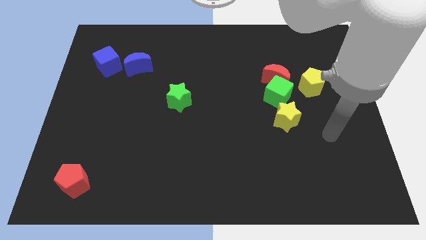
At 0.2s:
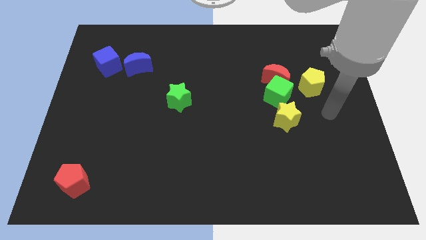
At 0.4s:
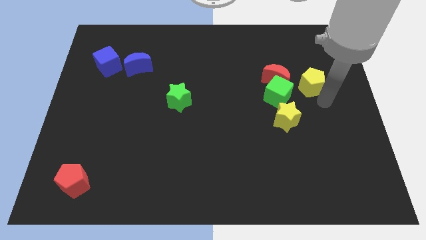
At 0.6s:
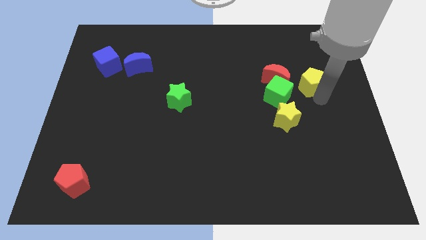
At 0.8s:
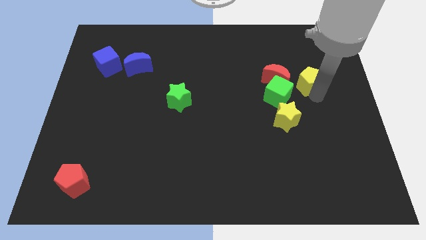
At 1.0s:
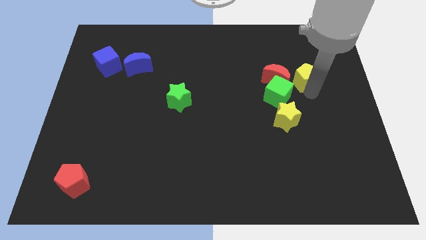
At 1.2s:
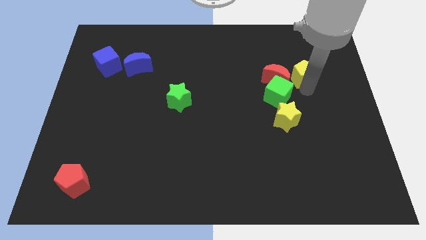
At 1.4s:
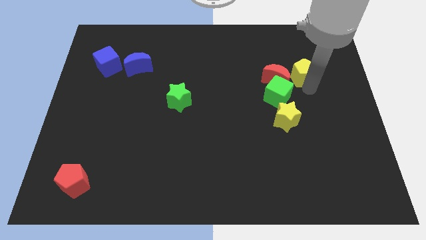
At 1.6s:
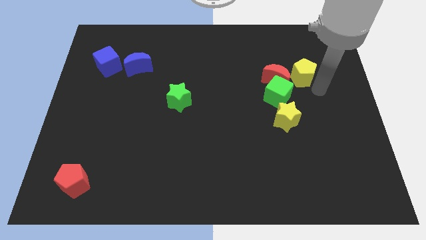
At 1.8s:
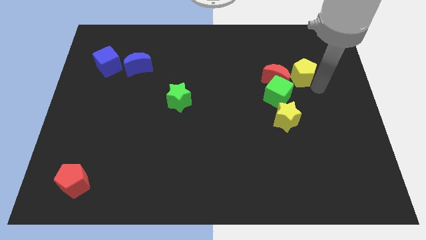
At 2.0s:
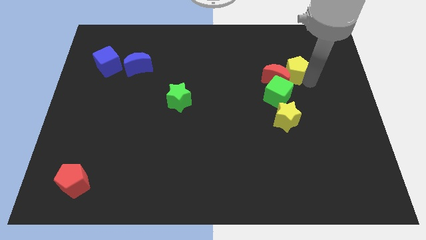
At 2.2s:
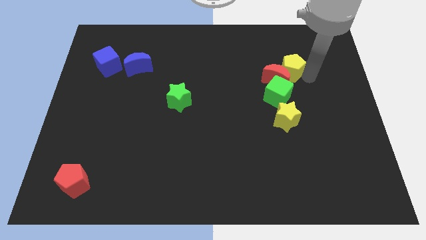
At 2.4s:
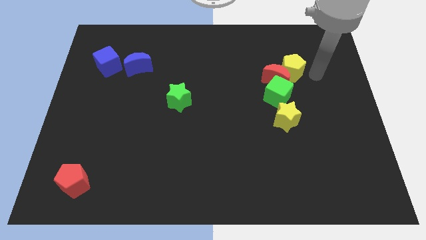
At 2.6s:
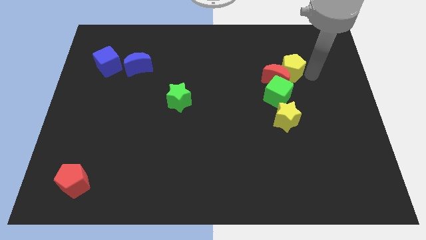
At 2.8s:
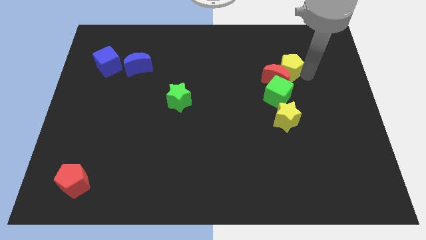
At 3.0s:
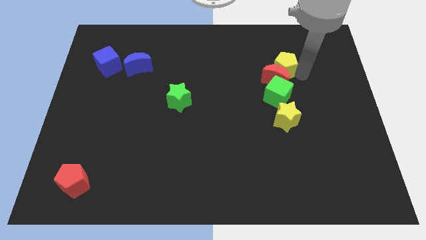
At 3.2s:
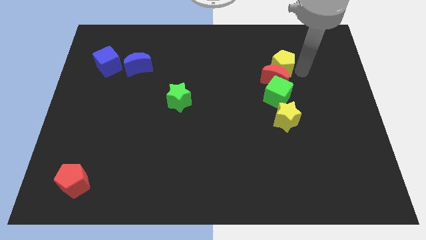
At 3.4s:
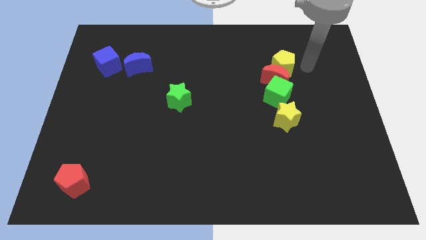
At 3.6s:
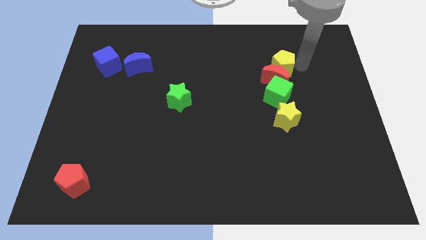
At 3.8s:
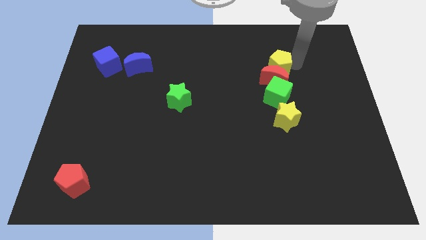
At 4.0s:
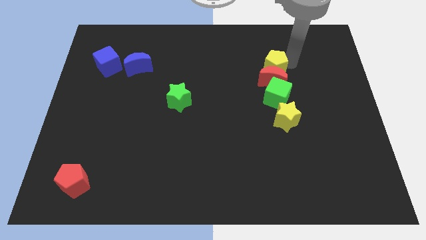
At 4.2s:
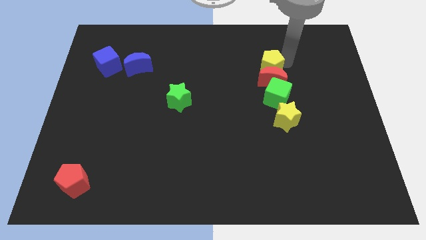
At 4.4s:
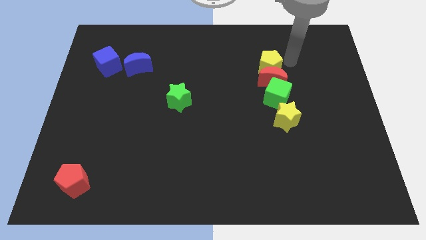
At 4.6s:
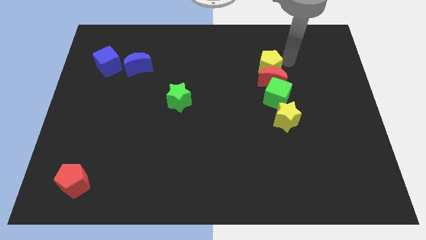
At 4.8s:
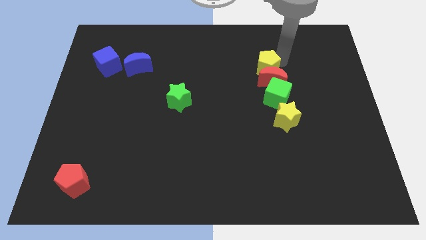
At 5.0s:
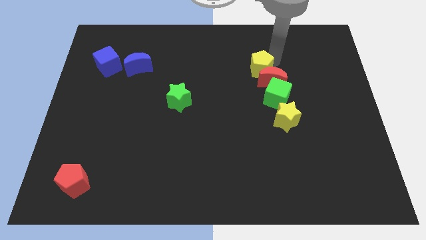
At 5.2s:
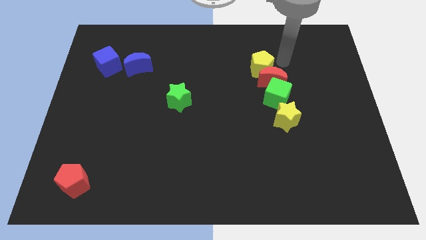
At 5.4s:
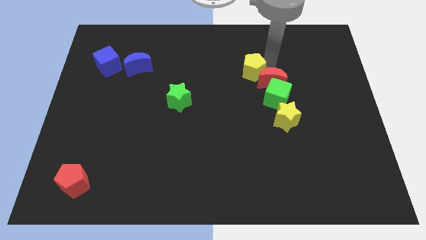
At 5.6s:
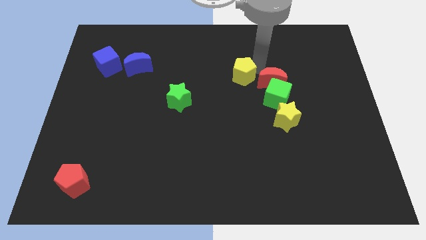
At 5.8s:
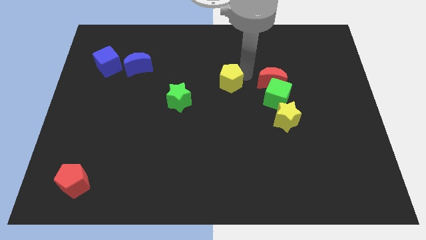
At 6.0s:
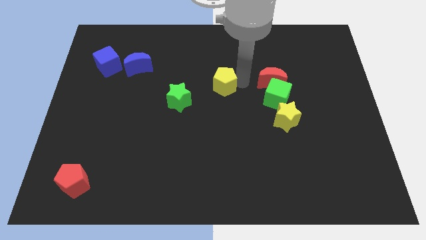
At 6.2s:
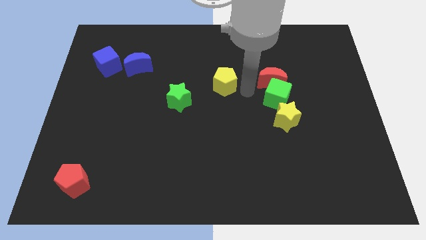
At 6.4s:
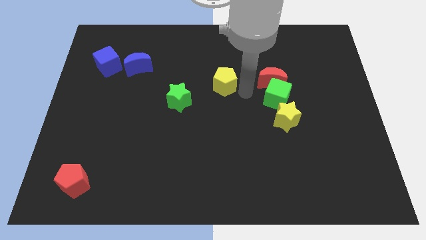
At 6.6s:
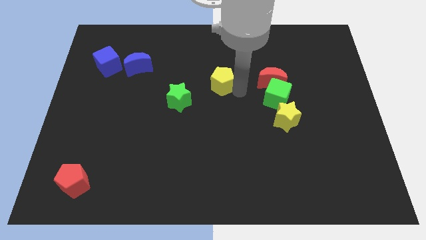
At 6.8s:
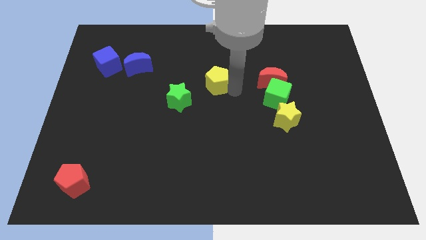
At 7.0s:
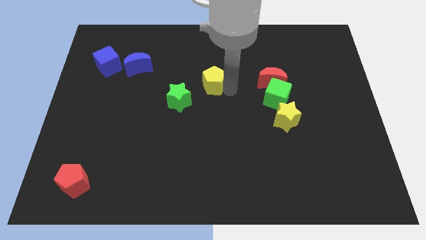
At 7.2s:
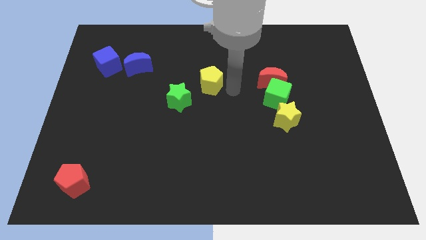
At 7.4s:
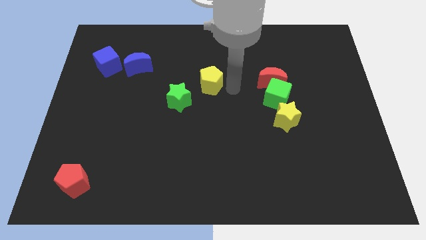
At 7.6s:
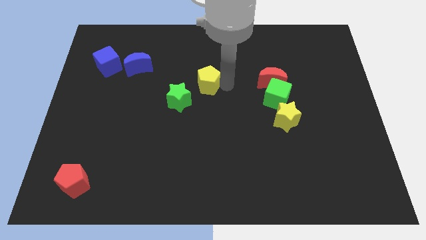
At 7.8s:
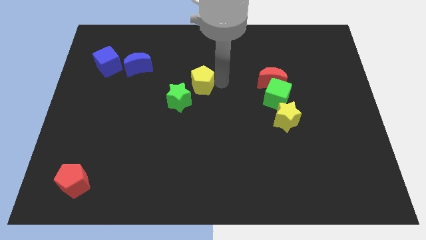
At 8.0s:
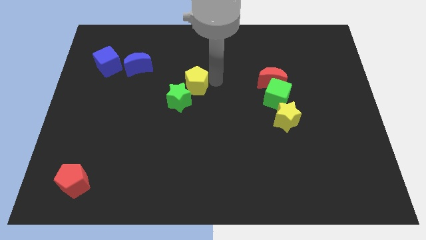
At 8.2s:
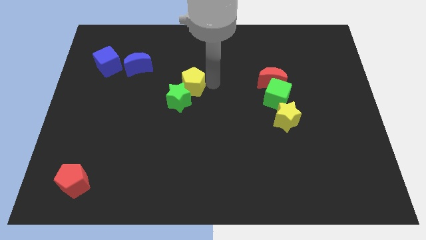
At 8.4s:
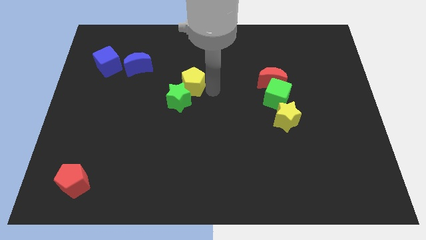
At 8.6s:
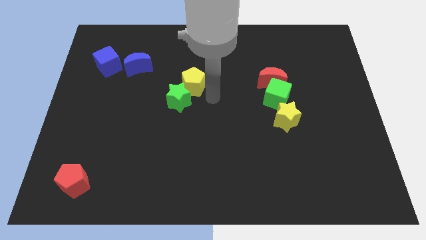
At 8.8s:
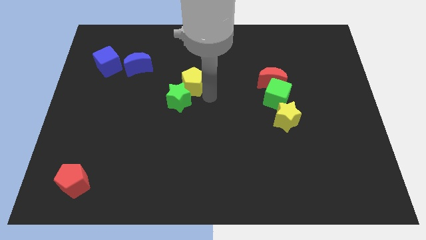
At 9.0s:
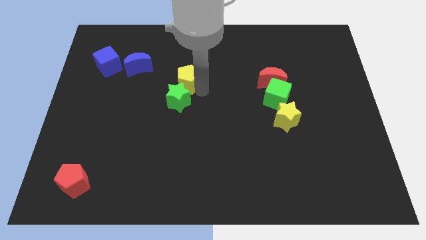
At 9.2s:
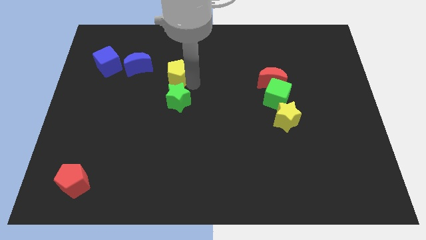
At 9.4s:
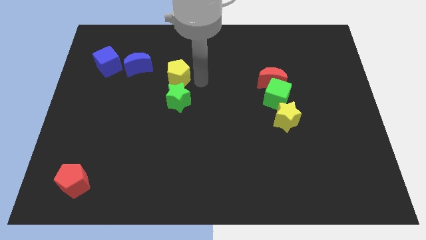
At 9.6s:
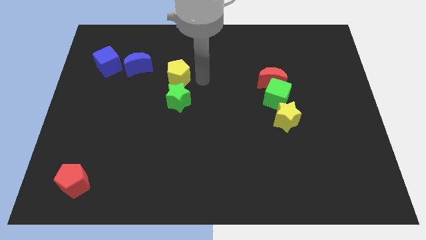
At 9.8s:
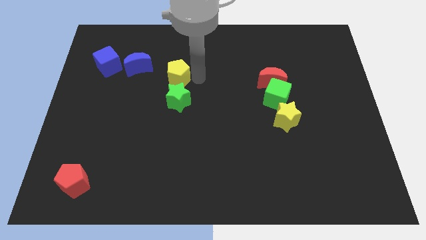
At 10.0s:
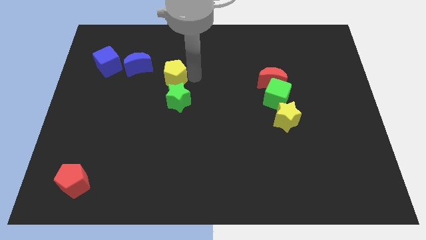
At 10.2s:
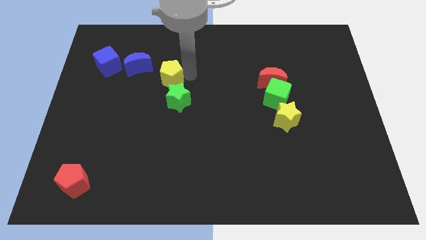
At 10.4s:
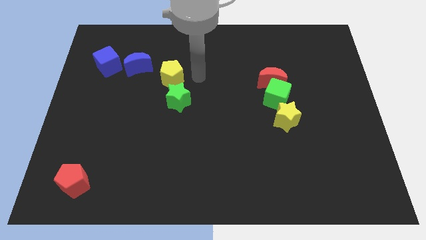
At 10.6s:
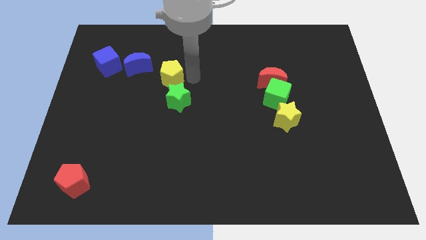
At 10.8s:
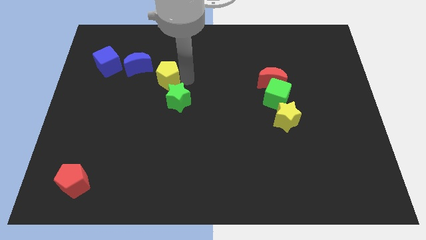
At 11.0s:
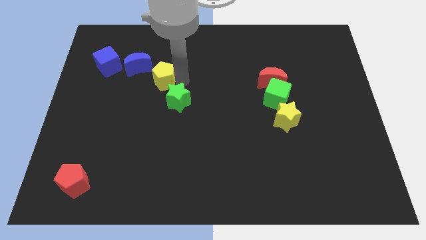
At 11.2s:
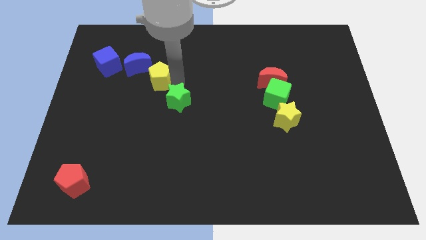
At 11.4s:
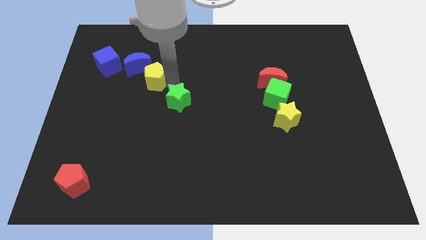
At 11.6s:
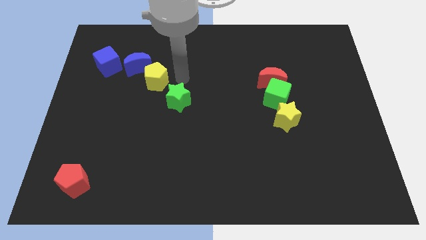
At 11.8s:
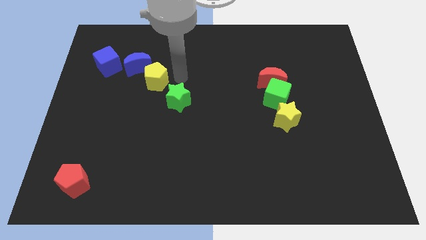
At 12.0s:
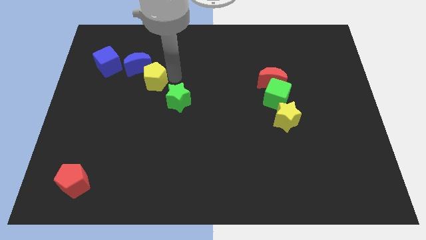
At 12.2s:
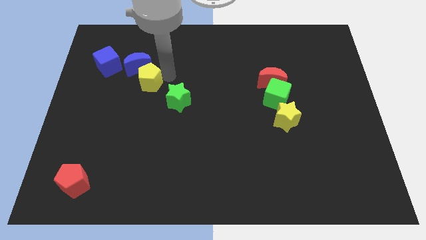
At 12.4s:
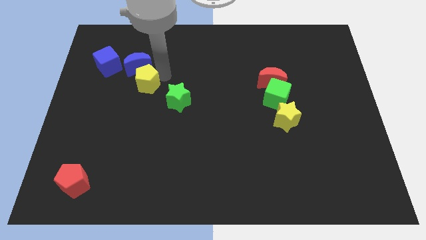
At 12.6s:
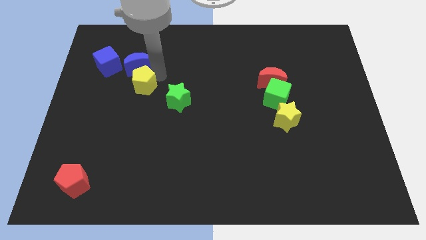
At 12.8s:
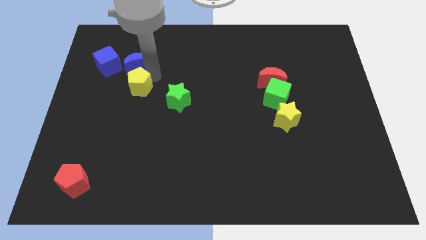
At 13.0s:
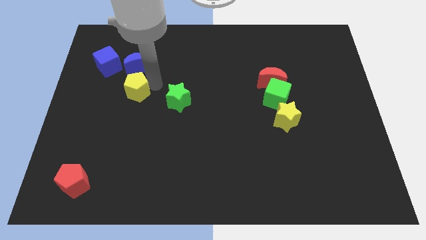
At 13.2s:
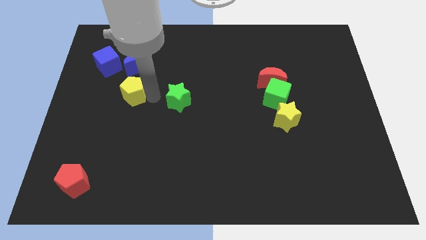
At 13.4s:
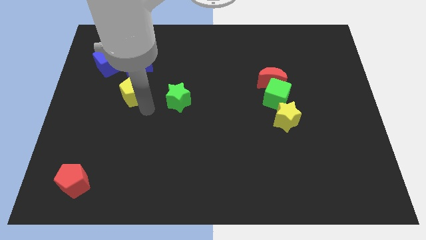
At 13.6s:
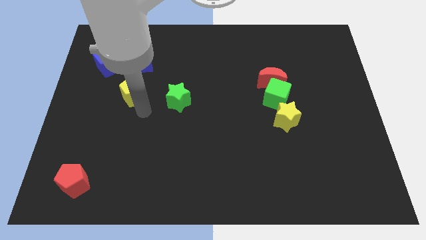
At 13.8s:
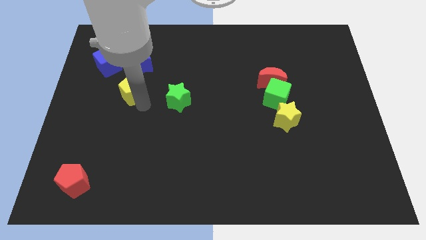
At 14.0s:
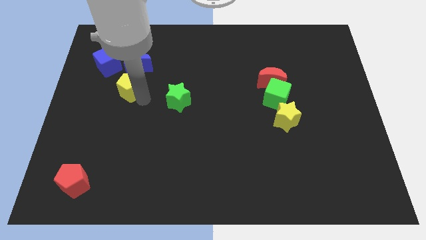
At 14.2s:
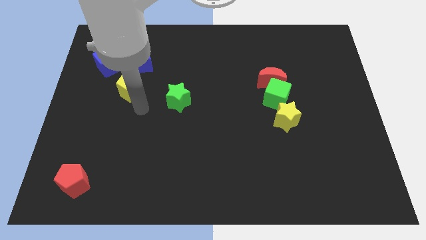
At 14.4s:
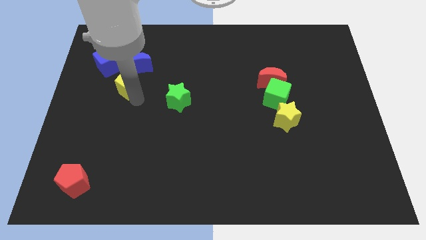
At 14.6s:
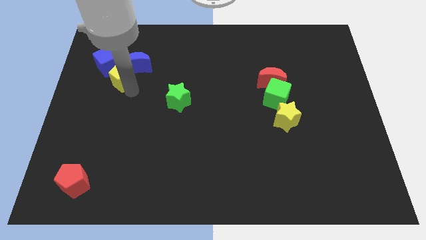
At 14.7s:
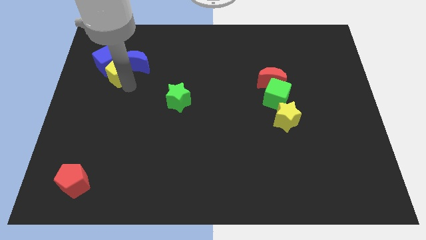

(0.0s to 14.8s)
put the yellow pentagon towards the blue cube
